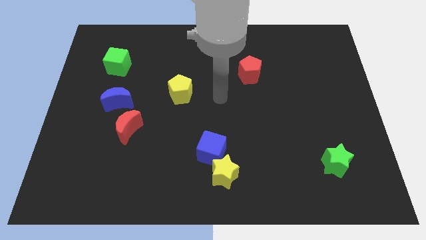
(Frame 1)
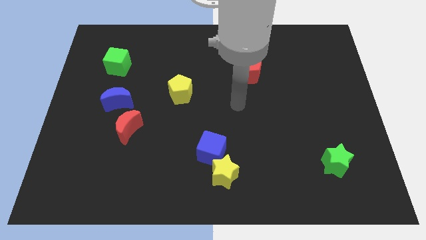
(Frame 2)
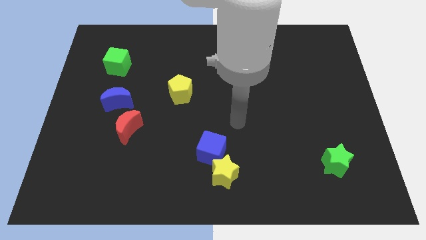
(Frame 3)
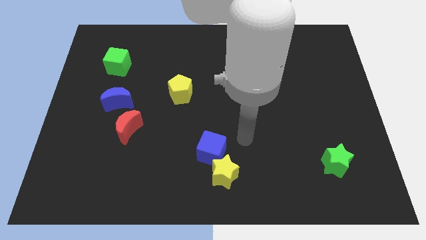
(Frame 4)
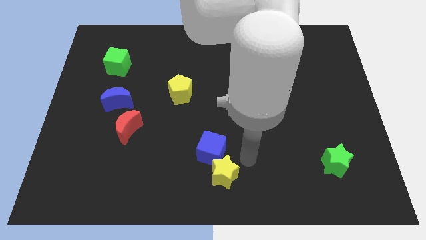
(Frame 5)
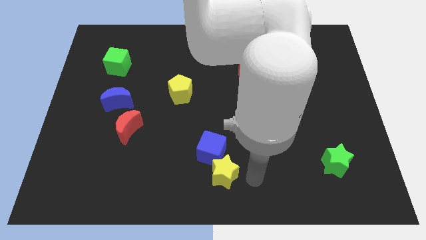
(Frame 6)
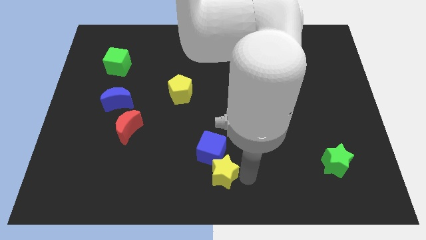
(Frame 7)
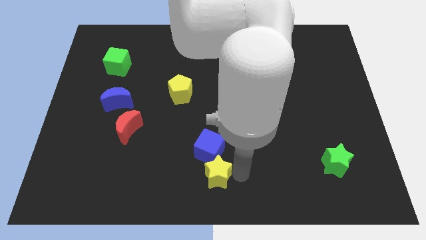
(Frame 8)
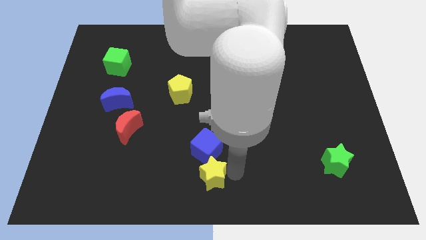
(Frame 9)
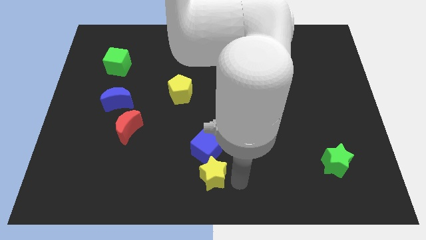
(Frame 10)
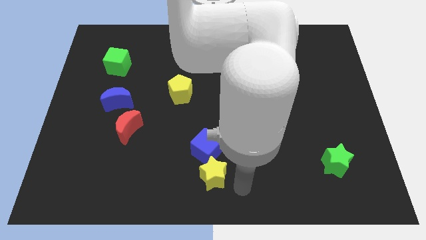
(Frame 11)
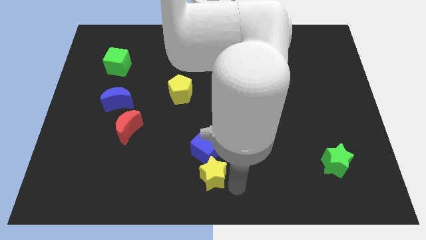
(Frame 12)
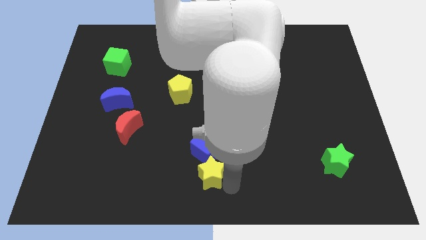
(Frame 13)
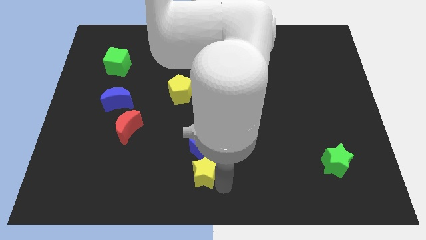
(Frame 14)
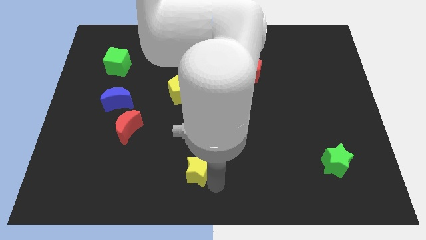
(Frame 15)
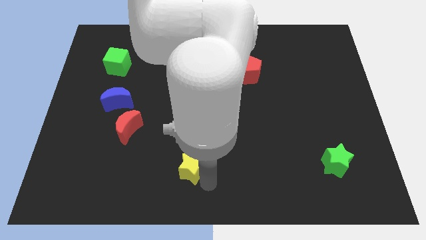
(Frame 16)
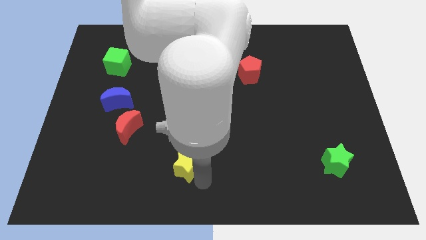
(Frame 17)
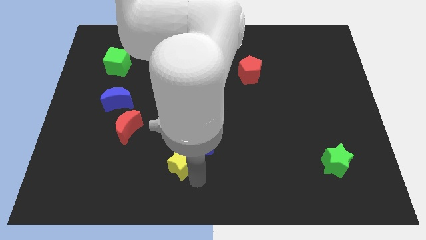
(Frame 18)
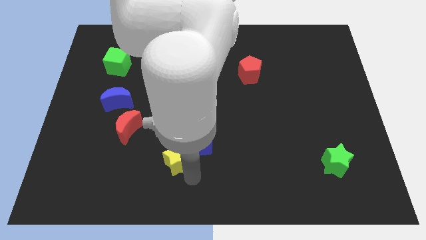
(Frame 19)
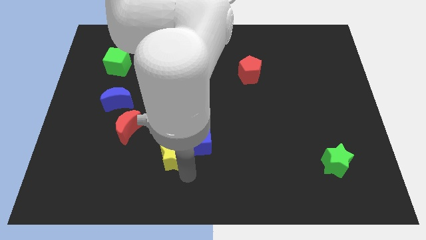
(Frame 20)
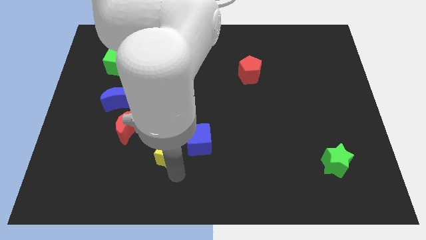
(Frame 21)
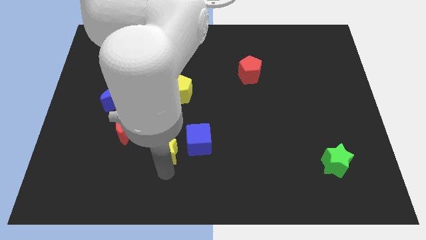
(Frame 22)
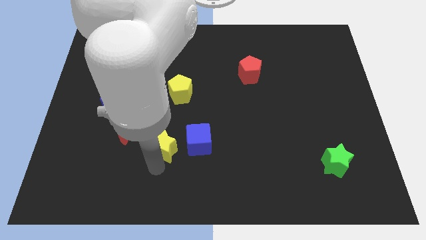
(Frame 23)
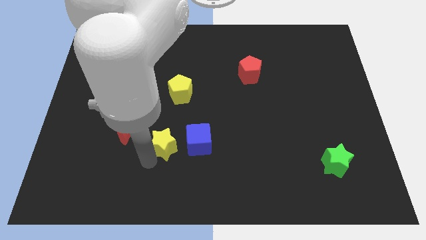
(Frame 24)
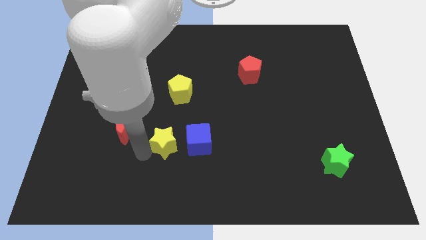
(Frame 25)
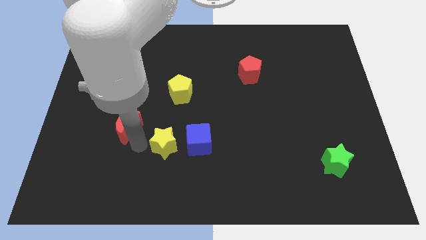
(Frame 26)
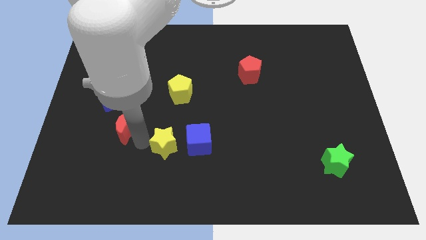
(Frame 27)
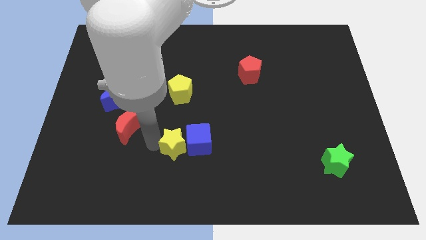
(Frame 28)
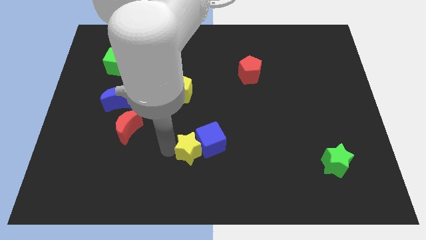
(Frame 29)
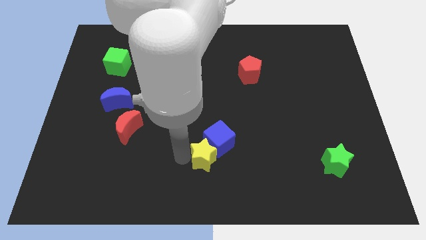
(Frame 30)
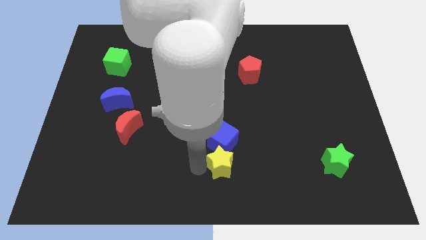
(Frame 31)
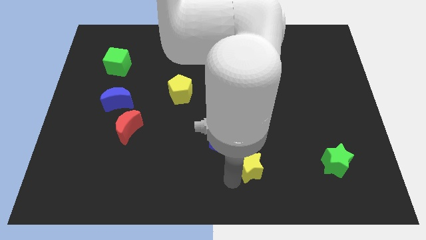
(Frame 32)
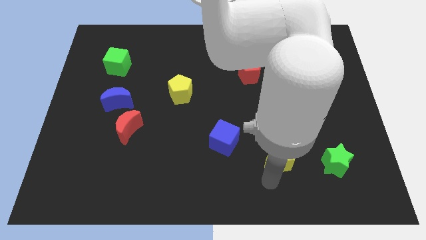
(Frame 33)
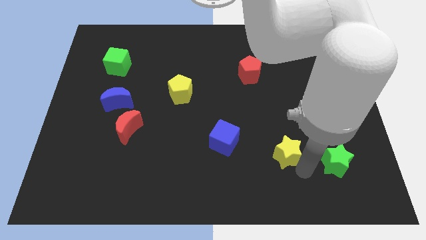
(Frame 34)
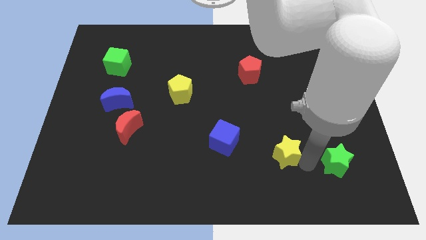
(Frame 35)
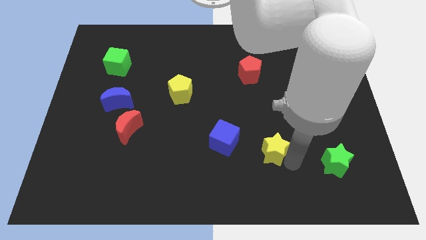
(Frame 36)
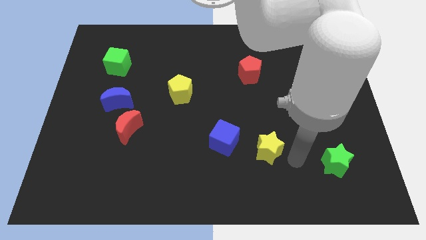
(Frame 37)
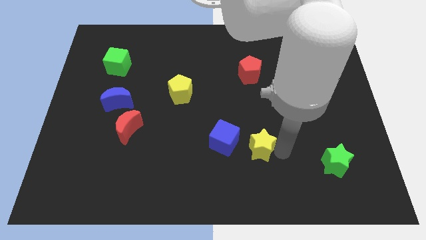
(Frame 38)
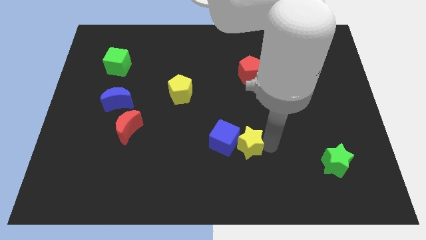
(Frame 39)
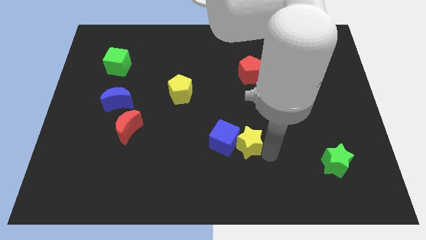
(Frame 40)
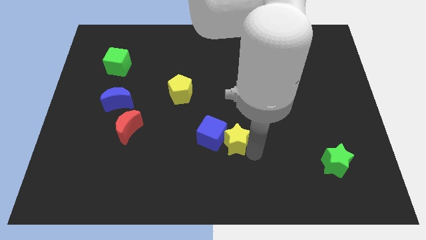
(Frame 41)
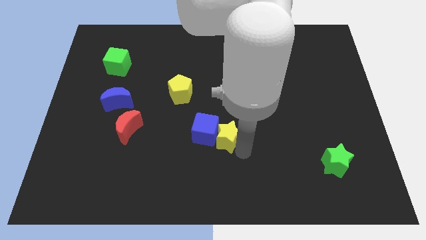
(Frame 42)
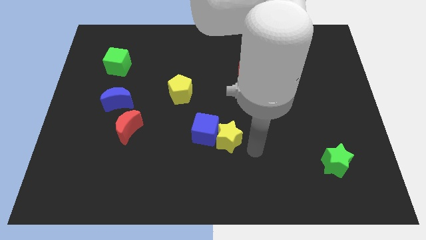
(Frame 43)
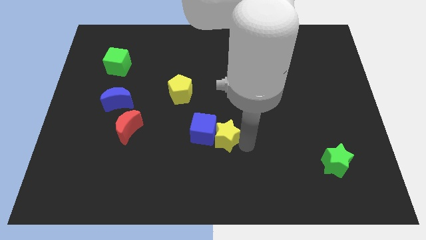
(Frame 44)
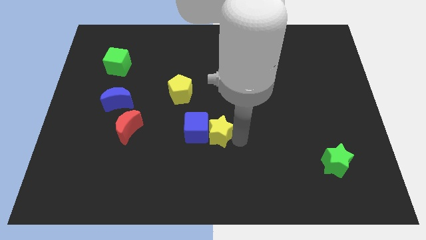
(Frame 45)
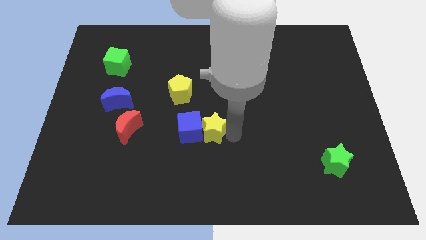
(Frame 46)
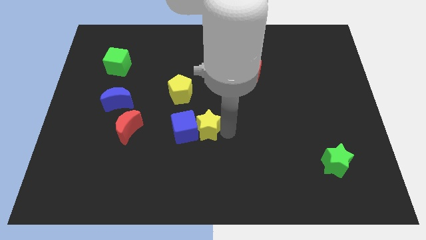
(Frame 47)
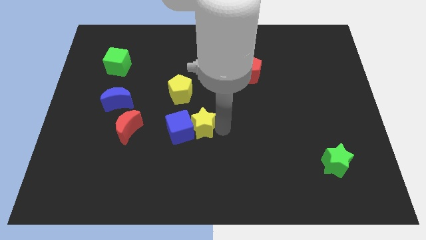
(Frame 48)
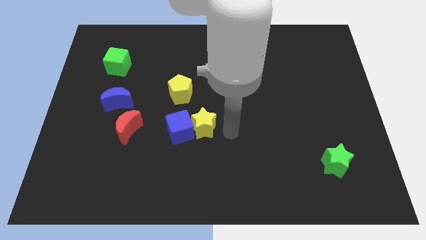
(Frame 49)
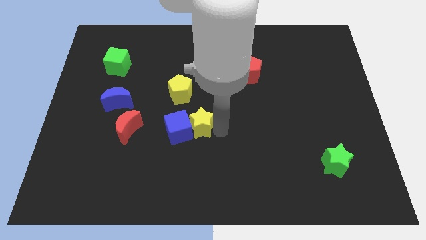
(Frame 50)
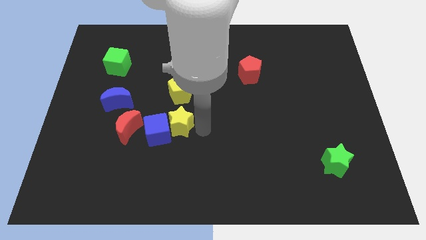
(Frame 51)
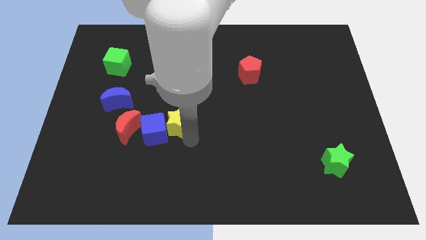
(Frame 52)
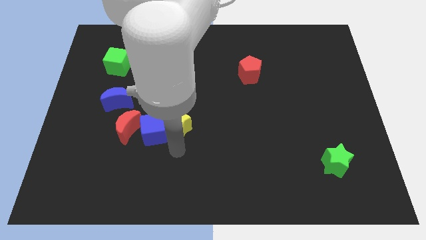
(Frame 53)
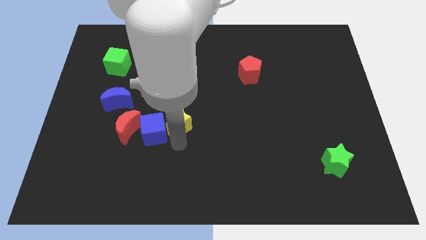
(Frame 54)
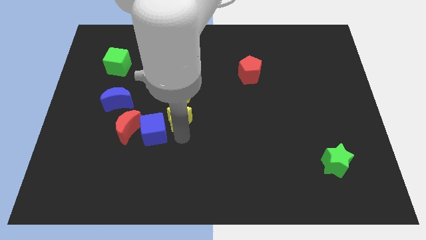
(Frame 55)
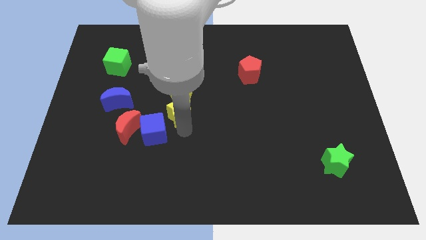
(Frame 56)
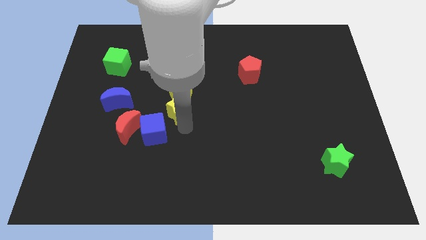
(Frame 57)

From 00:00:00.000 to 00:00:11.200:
put the yellow star next to the yellow pentagon
